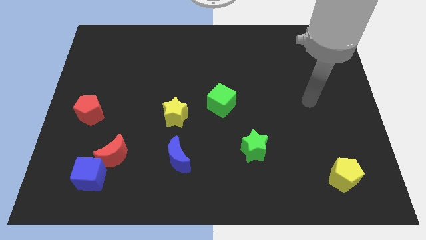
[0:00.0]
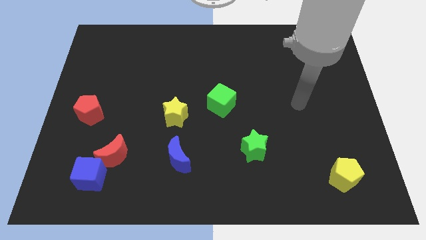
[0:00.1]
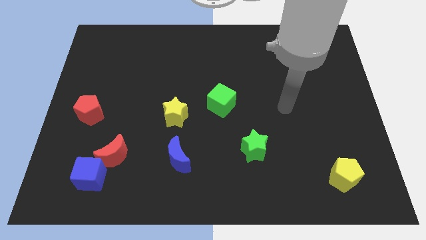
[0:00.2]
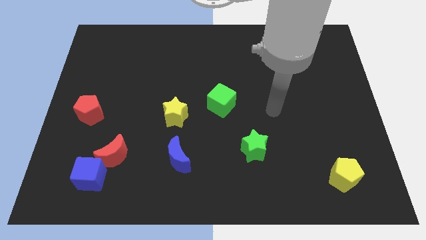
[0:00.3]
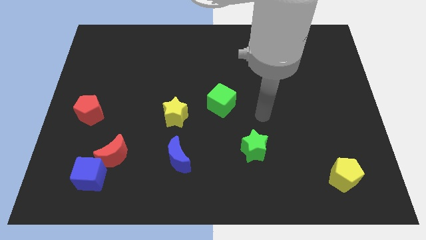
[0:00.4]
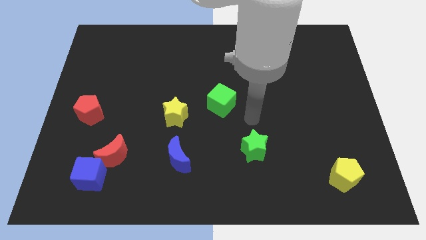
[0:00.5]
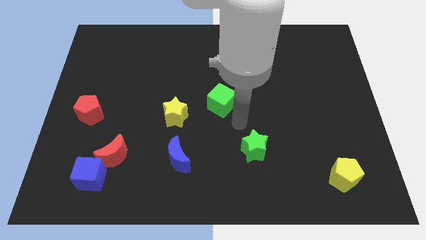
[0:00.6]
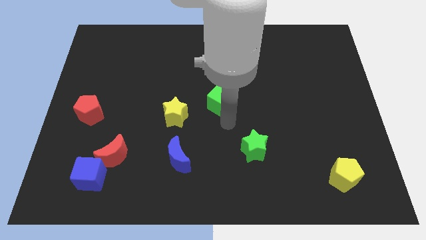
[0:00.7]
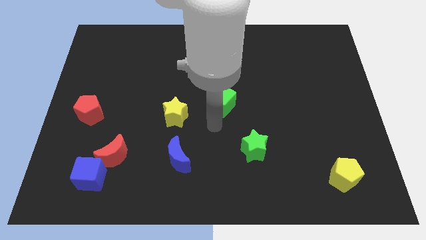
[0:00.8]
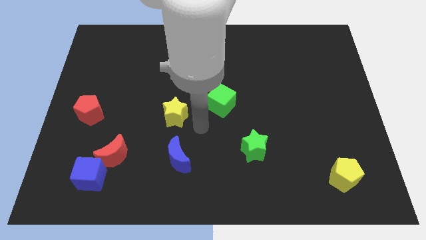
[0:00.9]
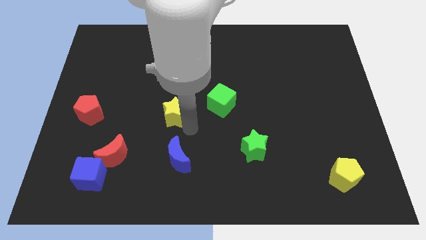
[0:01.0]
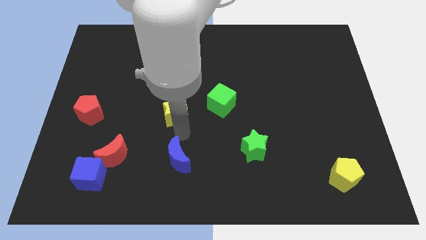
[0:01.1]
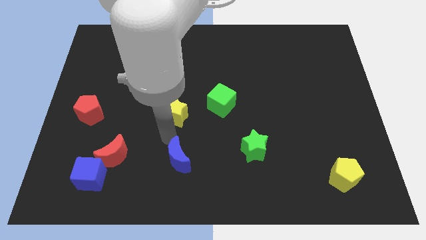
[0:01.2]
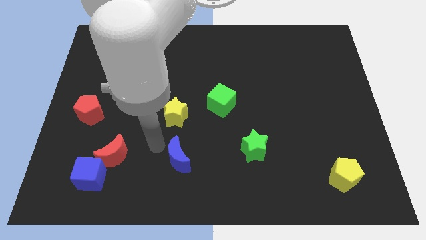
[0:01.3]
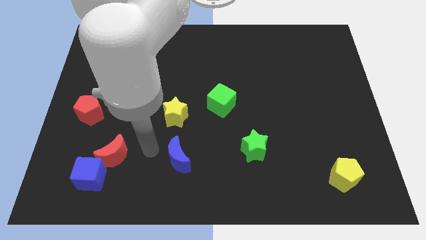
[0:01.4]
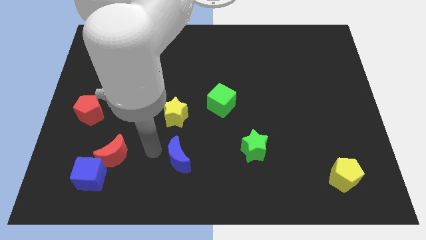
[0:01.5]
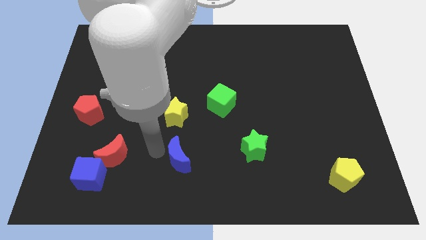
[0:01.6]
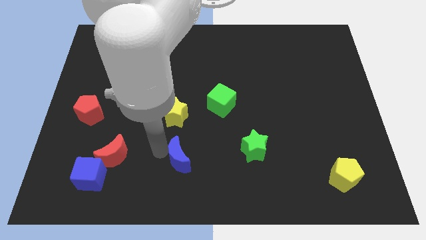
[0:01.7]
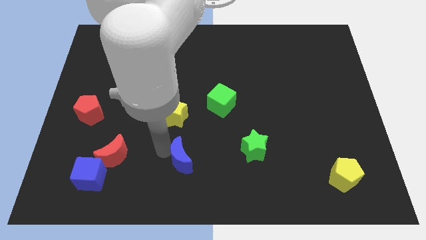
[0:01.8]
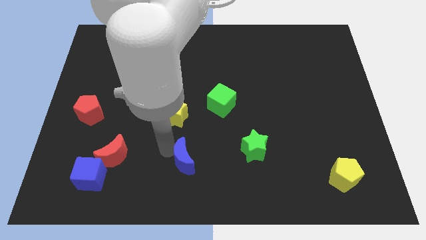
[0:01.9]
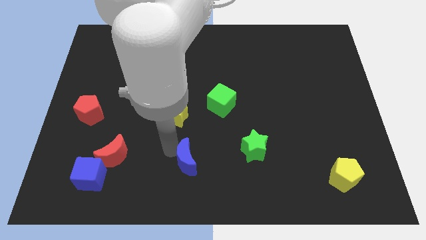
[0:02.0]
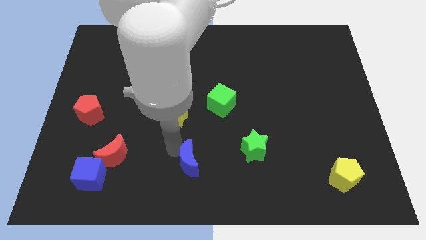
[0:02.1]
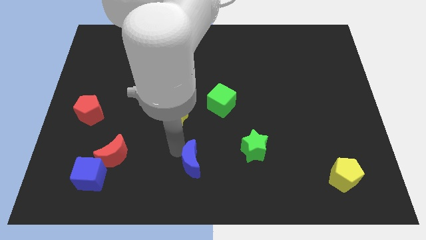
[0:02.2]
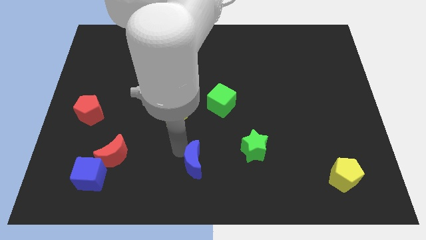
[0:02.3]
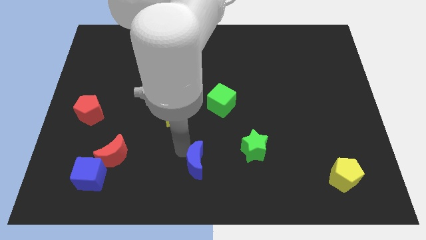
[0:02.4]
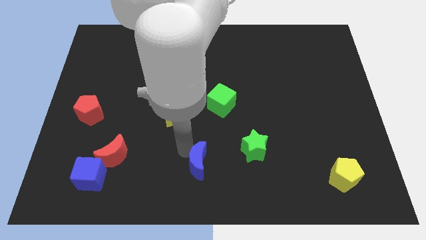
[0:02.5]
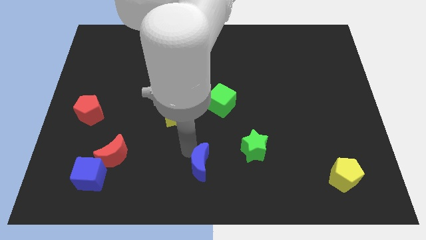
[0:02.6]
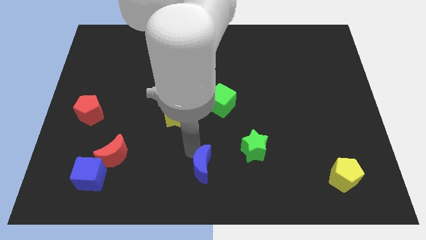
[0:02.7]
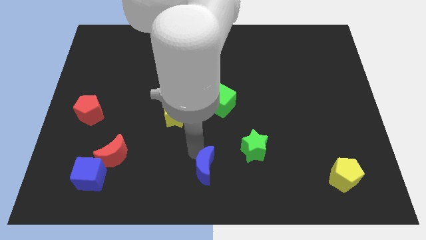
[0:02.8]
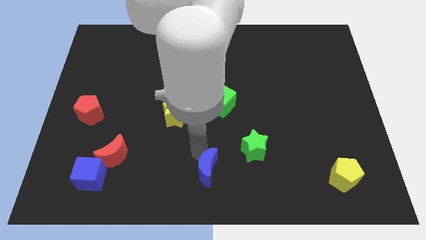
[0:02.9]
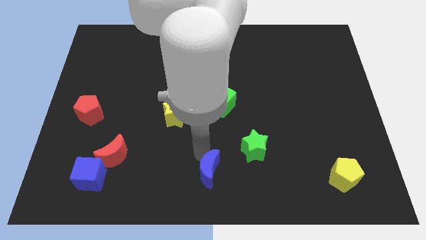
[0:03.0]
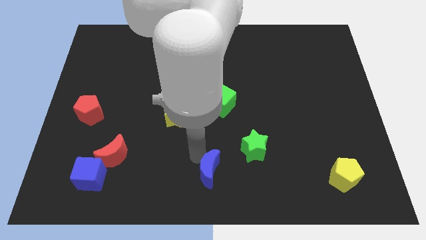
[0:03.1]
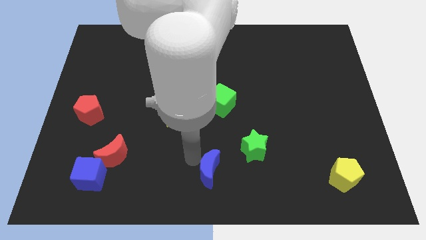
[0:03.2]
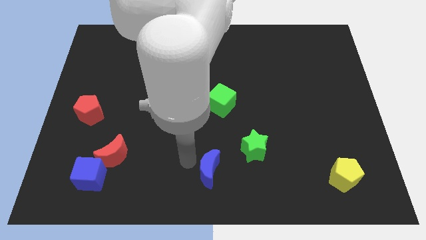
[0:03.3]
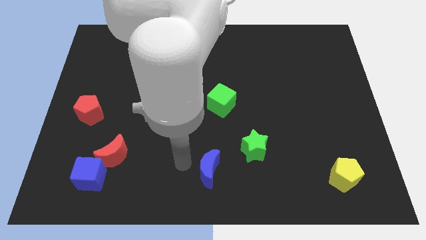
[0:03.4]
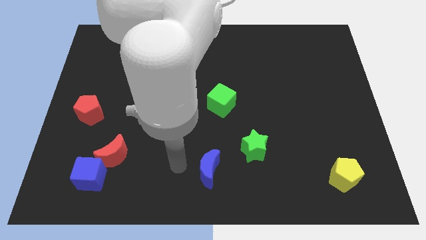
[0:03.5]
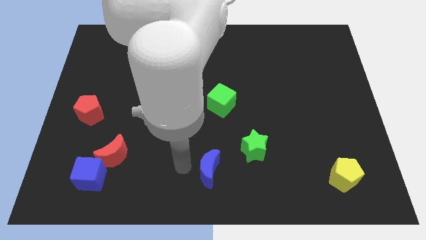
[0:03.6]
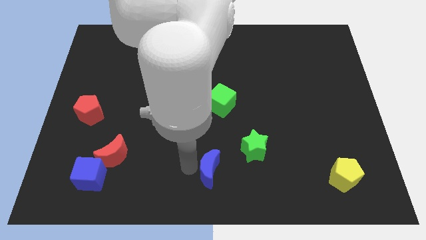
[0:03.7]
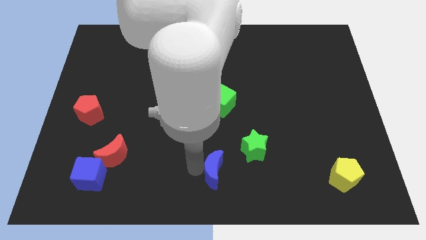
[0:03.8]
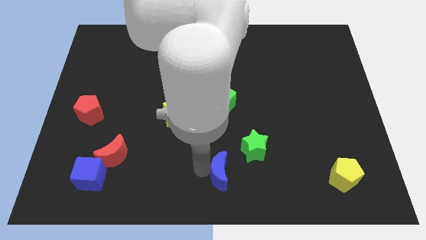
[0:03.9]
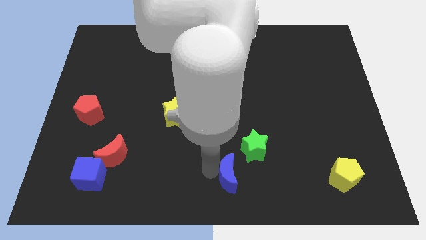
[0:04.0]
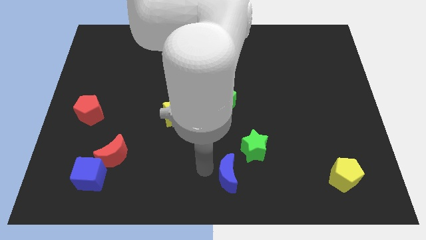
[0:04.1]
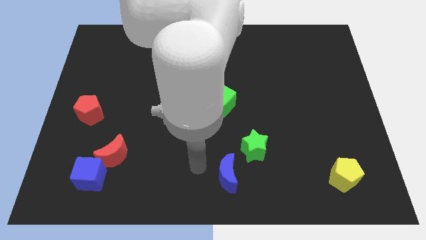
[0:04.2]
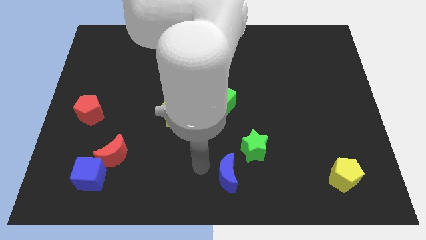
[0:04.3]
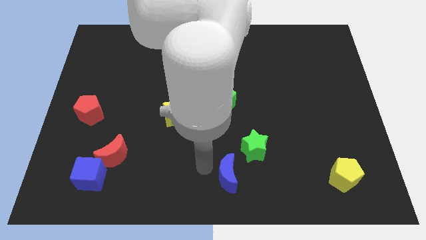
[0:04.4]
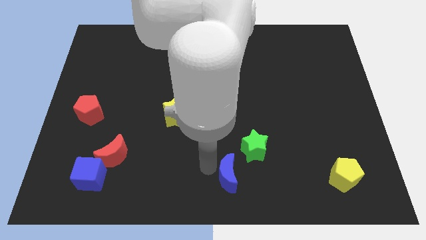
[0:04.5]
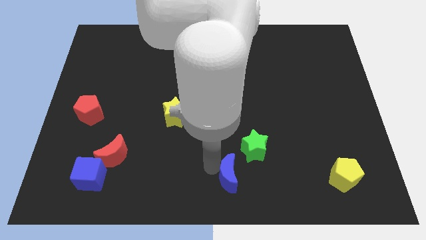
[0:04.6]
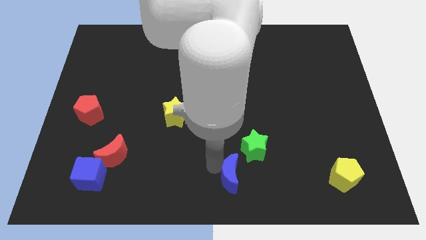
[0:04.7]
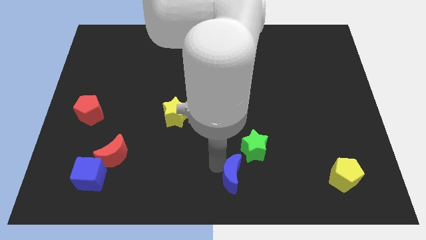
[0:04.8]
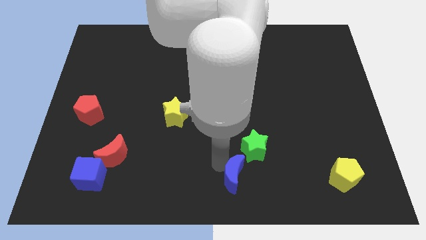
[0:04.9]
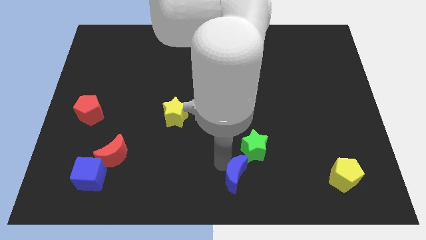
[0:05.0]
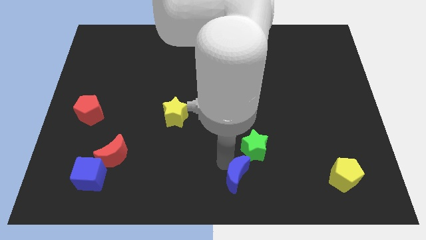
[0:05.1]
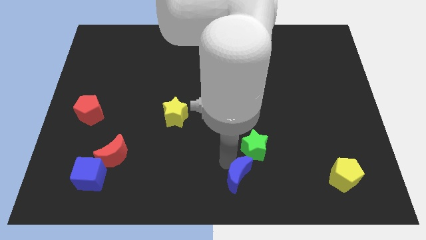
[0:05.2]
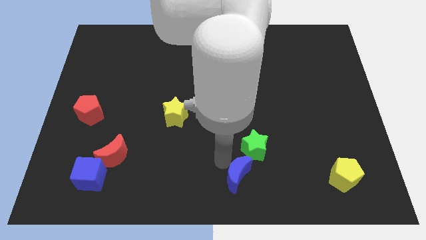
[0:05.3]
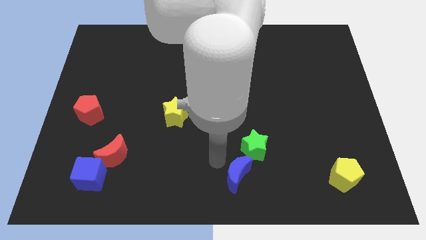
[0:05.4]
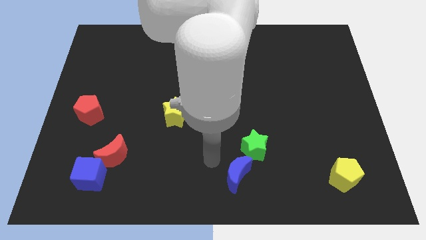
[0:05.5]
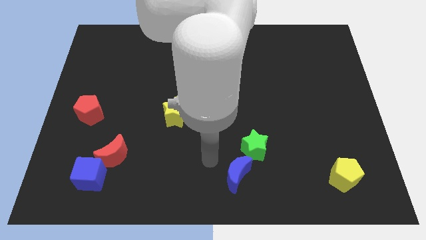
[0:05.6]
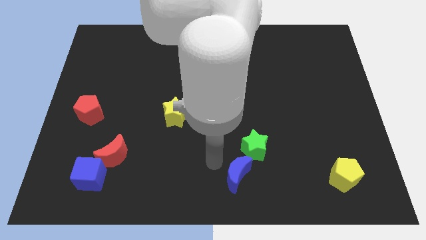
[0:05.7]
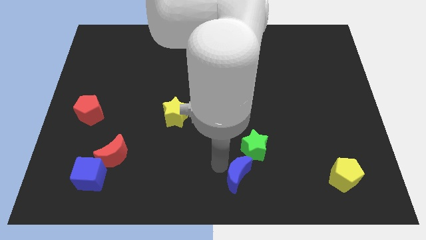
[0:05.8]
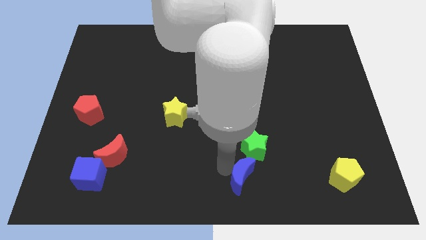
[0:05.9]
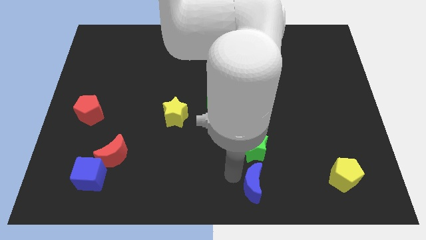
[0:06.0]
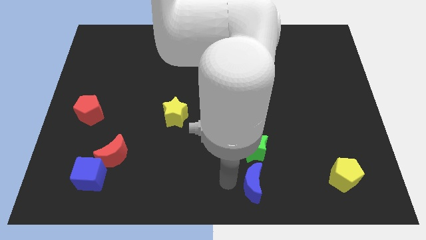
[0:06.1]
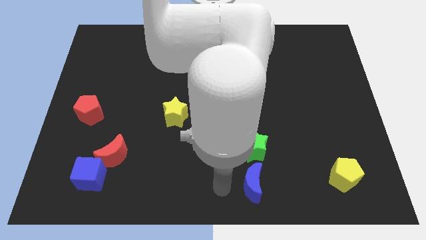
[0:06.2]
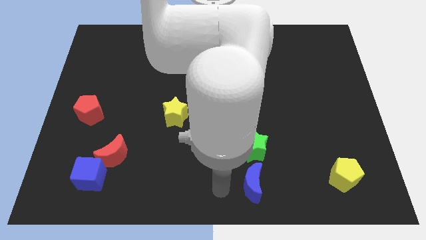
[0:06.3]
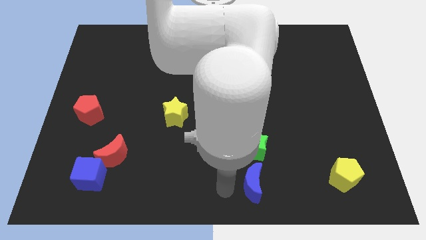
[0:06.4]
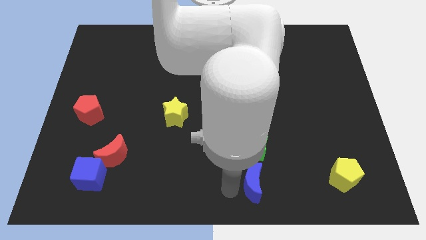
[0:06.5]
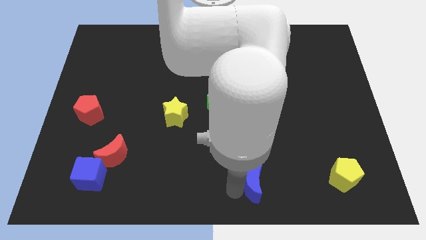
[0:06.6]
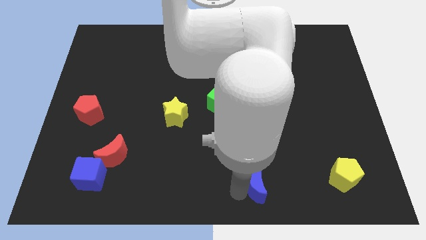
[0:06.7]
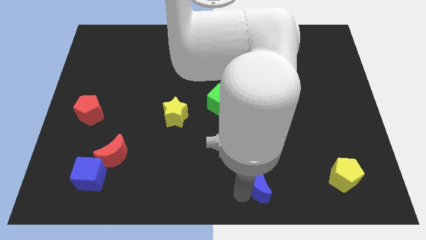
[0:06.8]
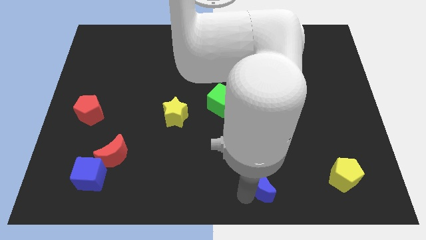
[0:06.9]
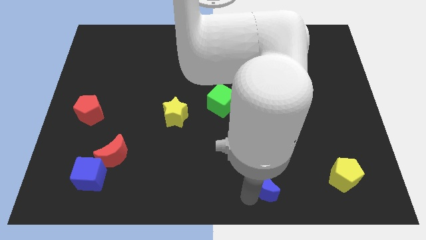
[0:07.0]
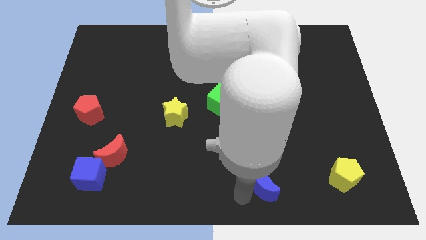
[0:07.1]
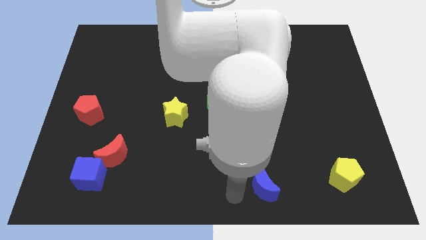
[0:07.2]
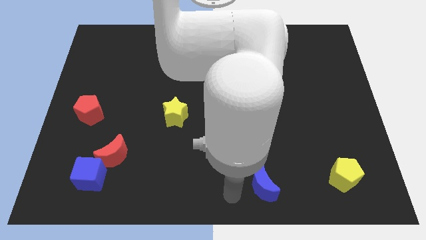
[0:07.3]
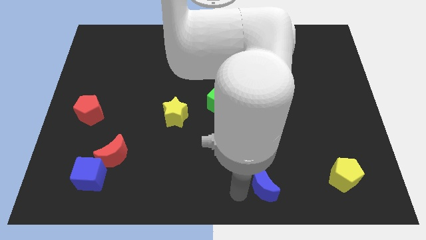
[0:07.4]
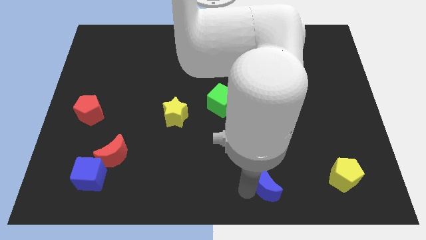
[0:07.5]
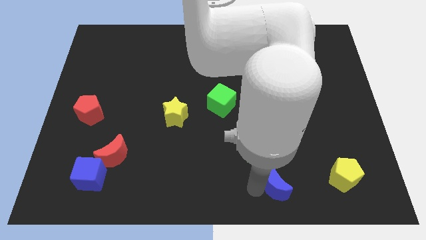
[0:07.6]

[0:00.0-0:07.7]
slide the blue moon left of the yellow pentagon
